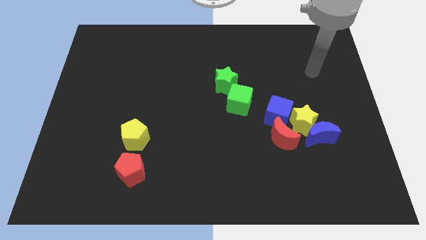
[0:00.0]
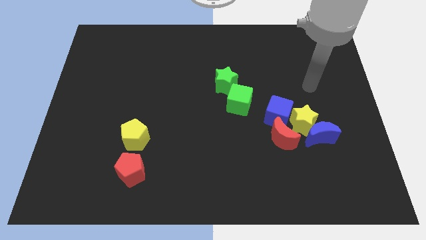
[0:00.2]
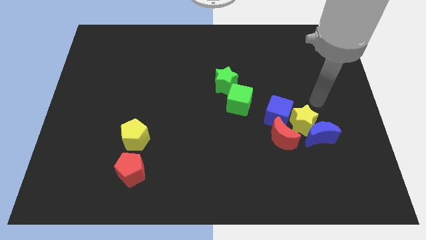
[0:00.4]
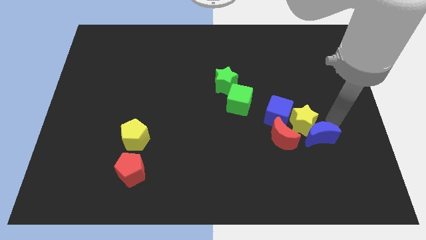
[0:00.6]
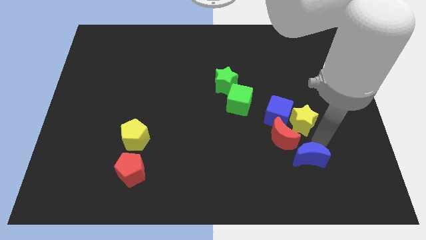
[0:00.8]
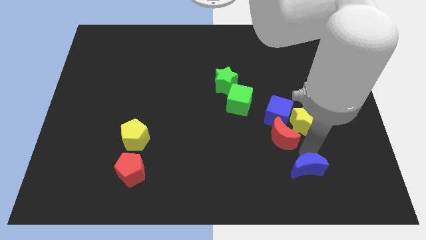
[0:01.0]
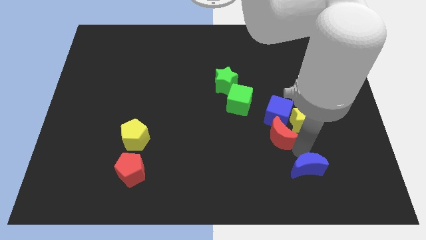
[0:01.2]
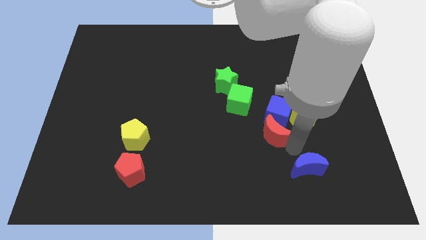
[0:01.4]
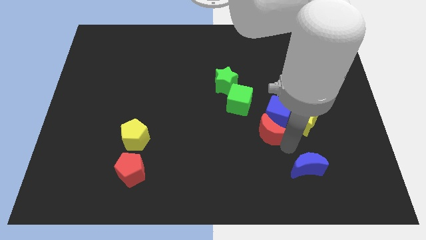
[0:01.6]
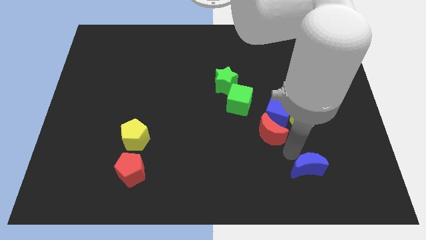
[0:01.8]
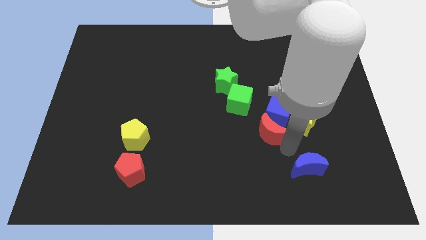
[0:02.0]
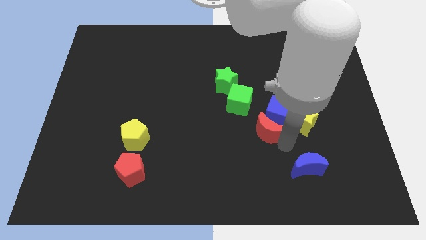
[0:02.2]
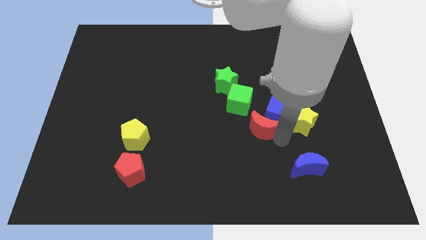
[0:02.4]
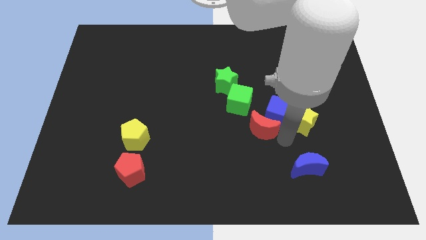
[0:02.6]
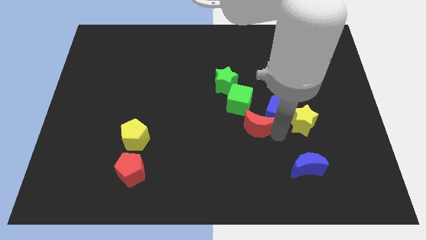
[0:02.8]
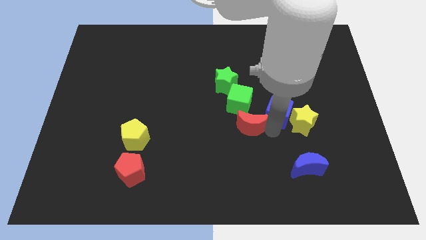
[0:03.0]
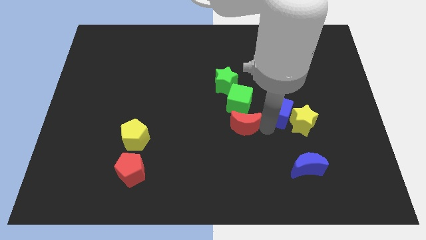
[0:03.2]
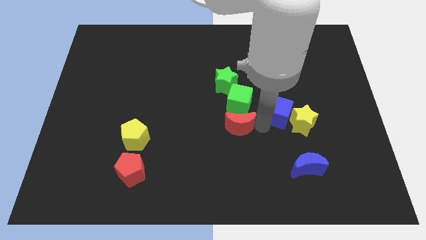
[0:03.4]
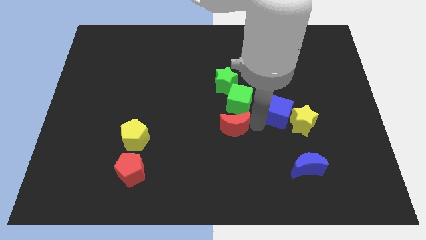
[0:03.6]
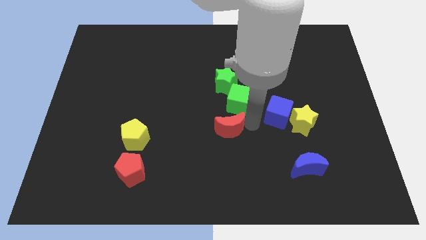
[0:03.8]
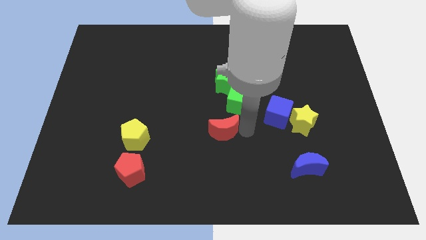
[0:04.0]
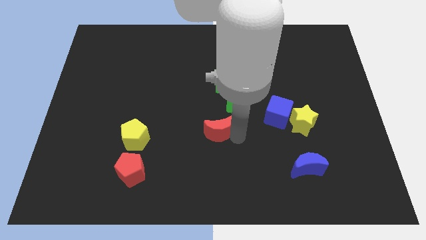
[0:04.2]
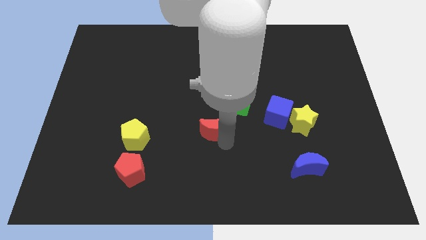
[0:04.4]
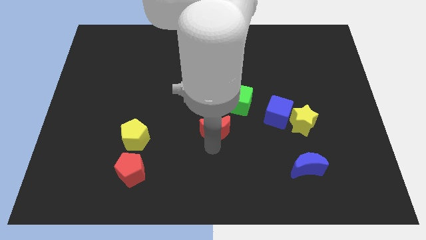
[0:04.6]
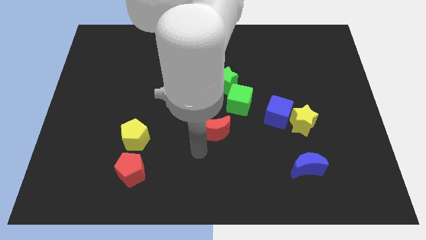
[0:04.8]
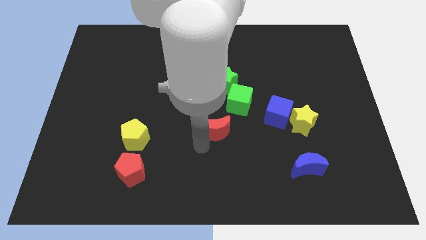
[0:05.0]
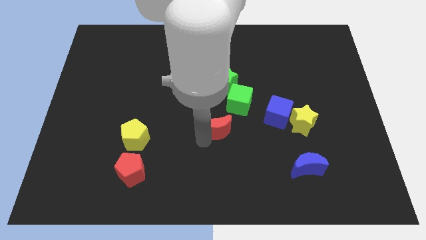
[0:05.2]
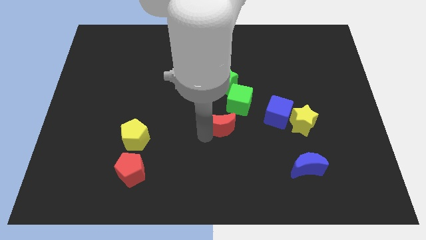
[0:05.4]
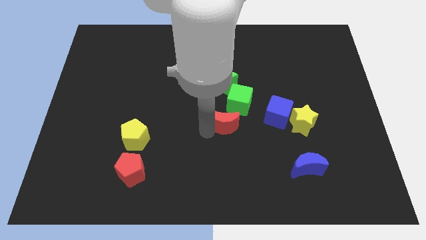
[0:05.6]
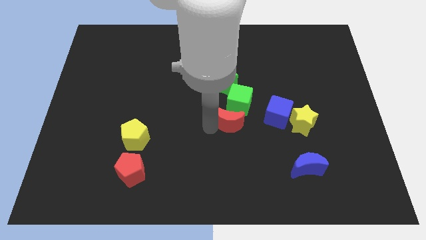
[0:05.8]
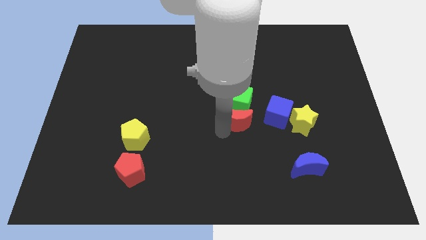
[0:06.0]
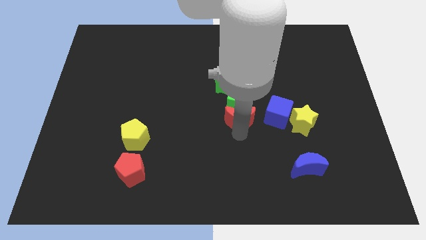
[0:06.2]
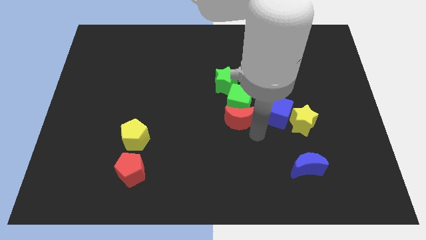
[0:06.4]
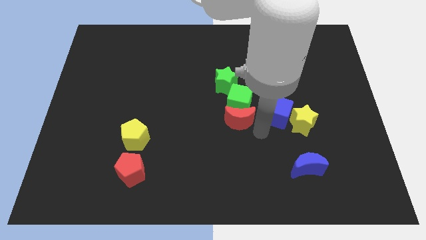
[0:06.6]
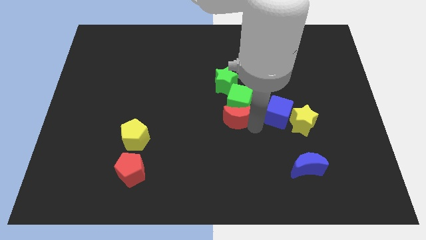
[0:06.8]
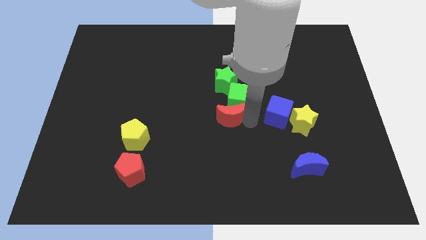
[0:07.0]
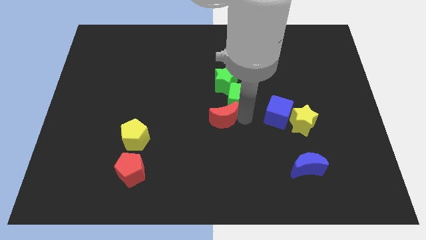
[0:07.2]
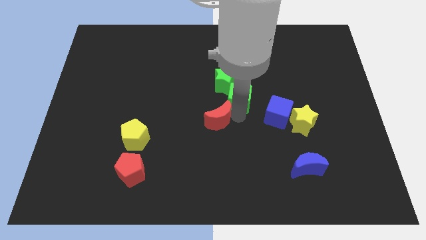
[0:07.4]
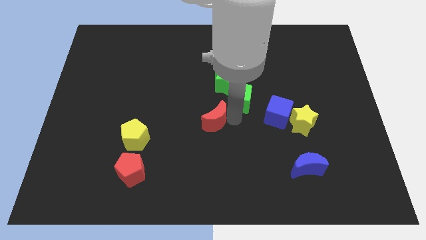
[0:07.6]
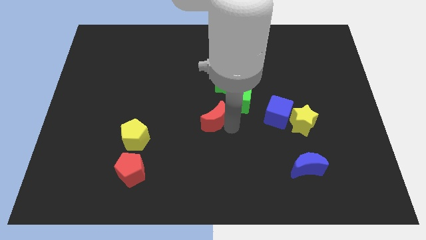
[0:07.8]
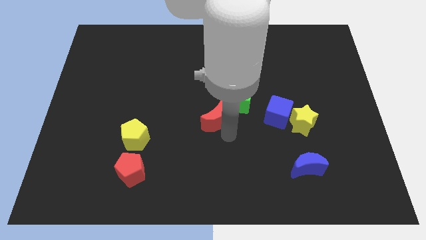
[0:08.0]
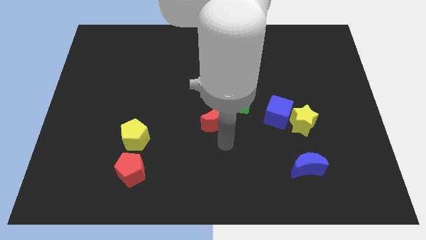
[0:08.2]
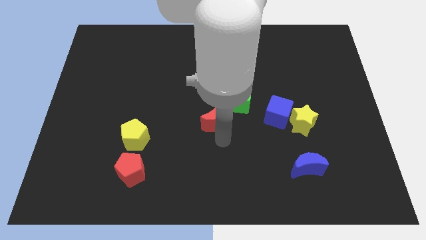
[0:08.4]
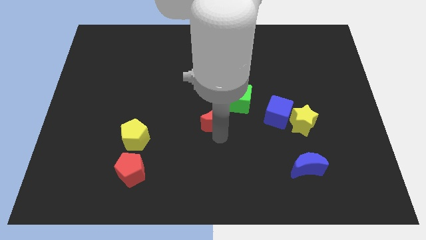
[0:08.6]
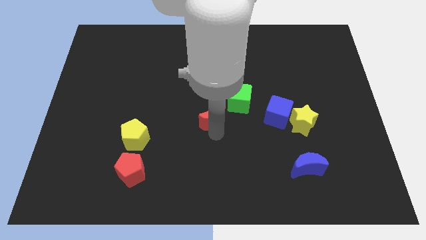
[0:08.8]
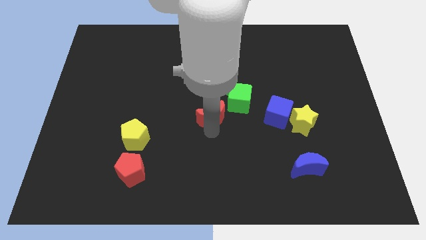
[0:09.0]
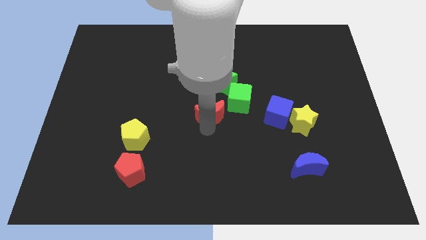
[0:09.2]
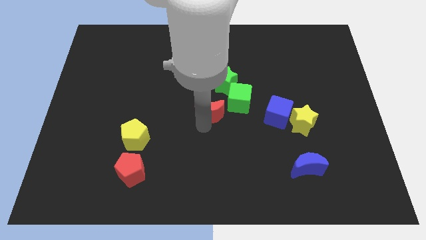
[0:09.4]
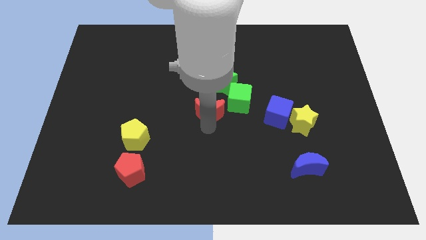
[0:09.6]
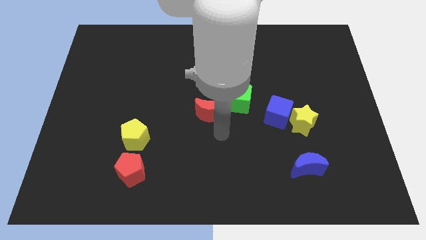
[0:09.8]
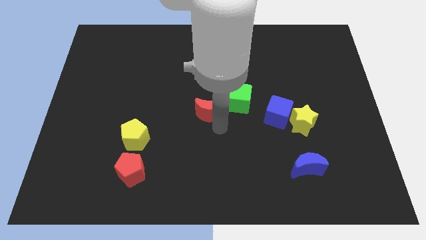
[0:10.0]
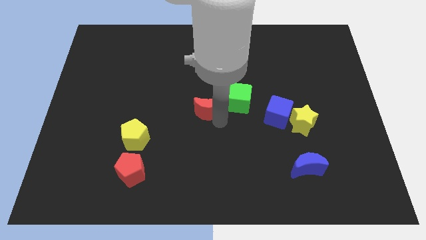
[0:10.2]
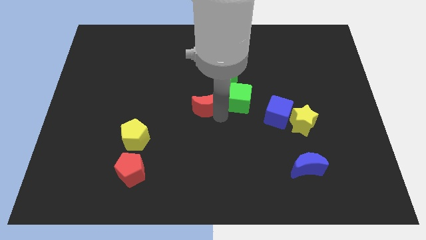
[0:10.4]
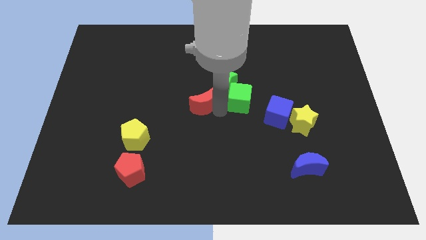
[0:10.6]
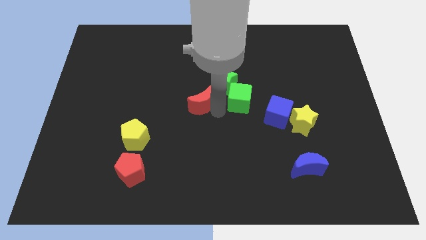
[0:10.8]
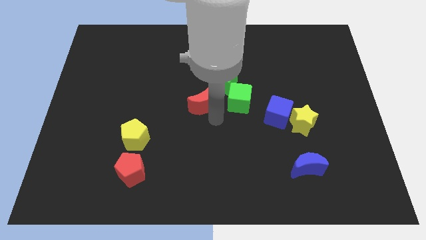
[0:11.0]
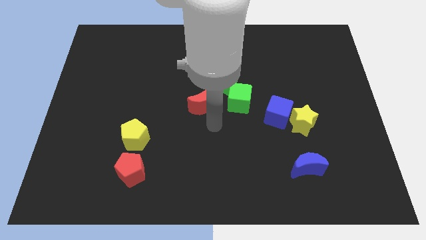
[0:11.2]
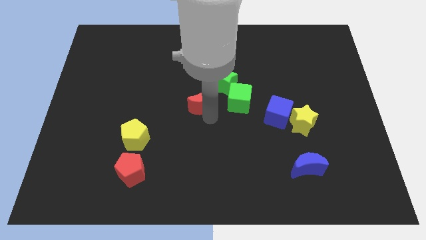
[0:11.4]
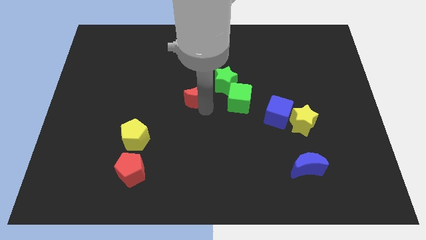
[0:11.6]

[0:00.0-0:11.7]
move the red moon diagonally upwards and to the left

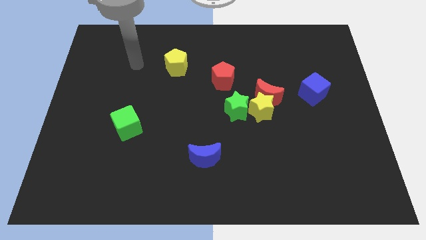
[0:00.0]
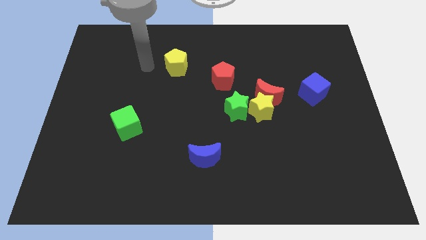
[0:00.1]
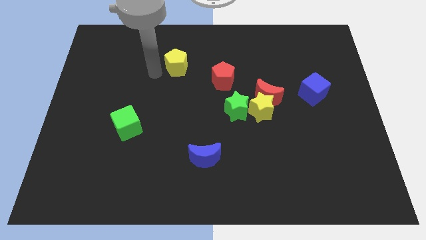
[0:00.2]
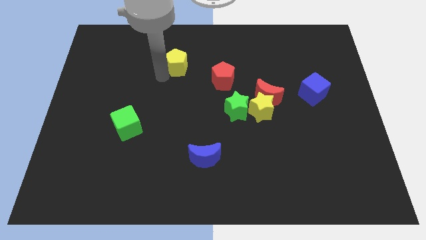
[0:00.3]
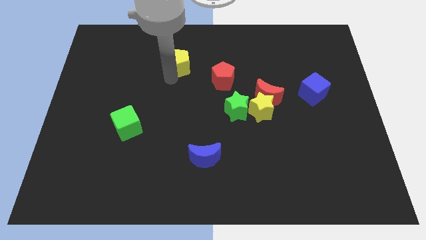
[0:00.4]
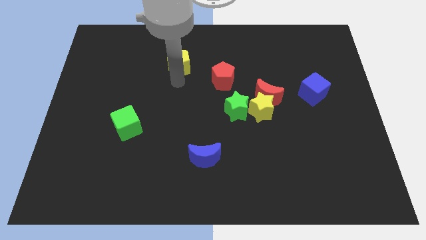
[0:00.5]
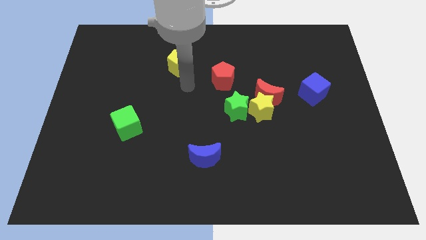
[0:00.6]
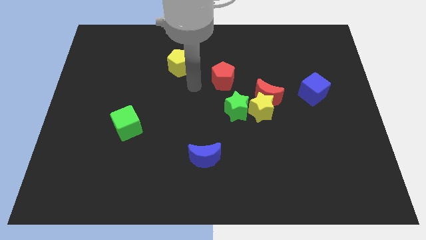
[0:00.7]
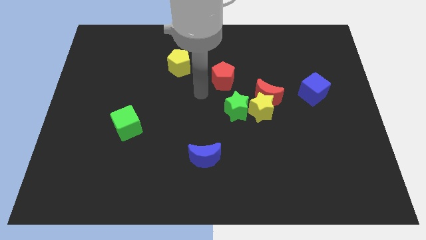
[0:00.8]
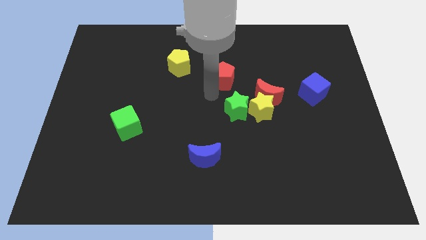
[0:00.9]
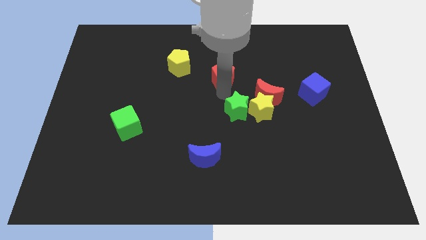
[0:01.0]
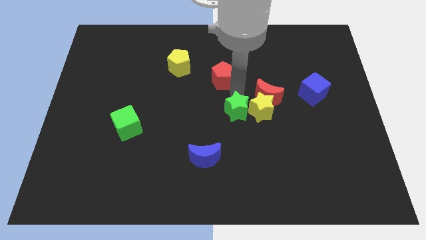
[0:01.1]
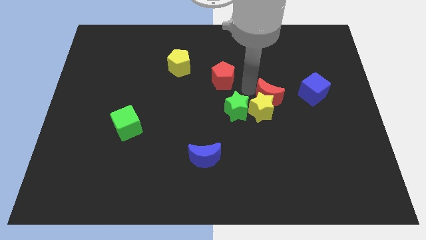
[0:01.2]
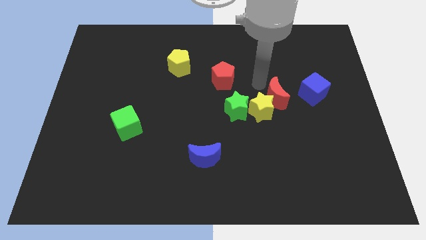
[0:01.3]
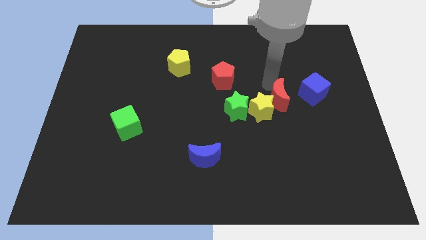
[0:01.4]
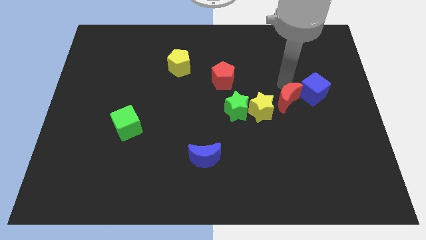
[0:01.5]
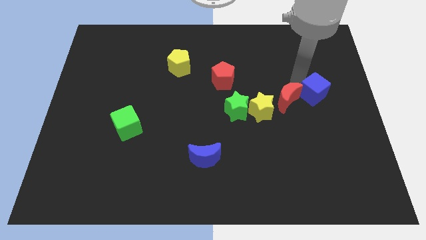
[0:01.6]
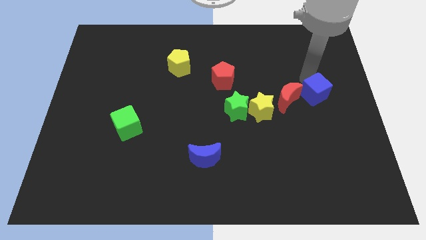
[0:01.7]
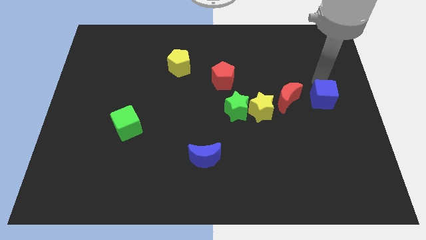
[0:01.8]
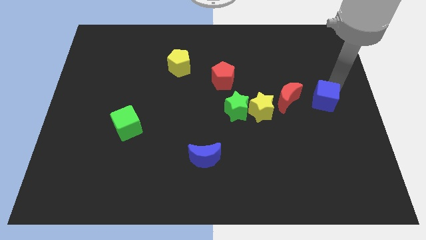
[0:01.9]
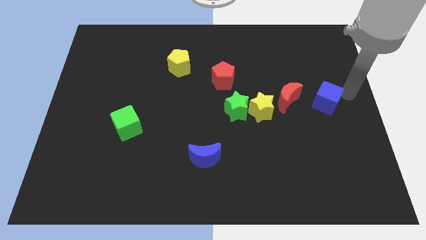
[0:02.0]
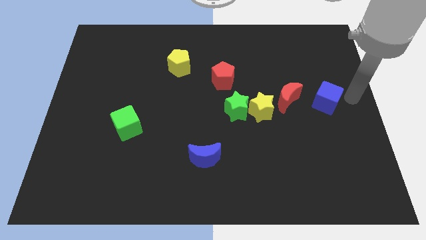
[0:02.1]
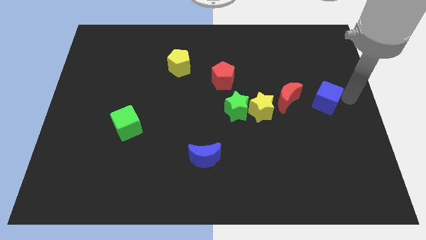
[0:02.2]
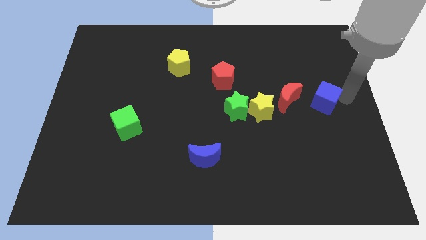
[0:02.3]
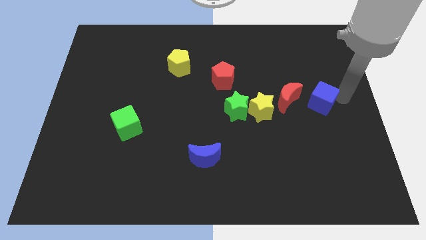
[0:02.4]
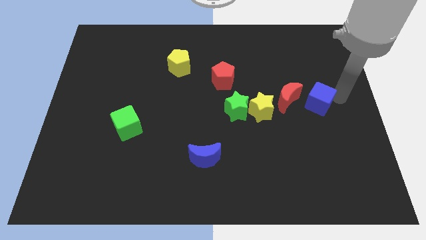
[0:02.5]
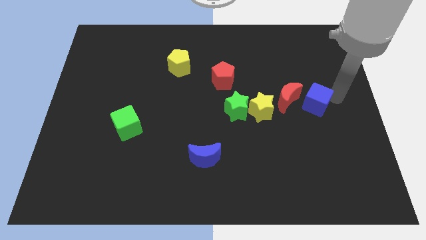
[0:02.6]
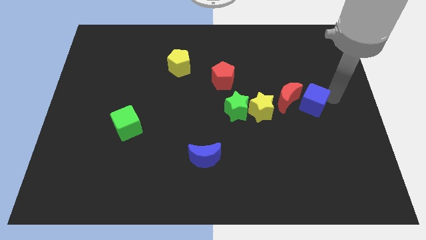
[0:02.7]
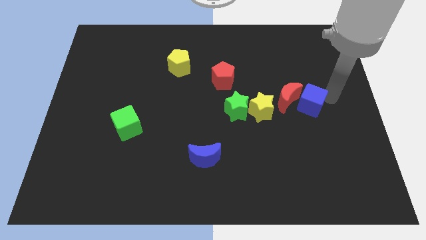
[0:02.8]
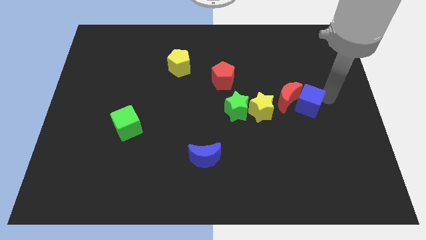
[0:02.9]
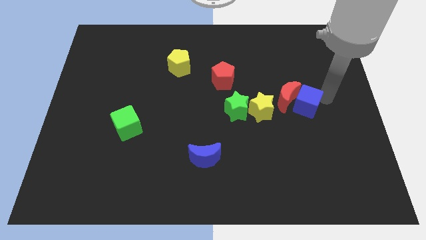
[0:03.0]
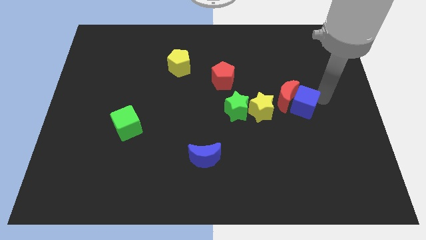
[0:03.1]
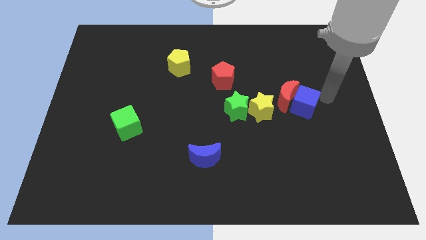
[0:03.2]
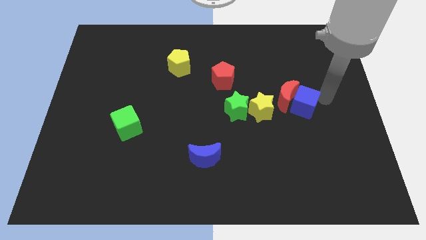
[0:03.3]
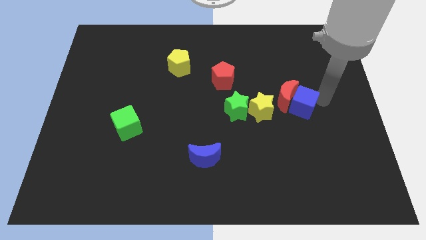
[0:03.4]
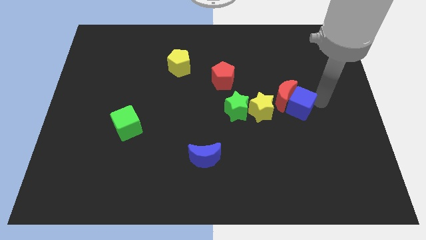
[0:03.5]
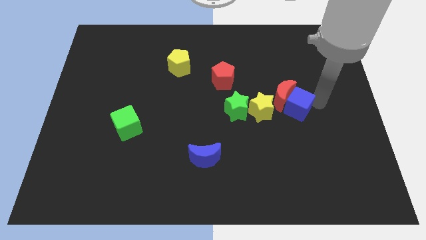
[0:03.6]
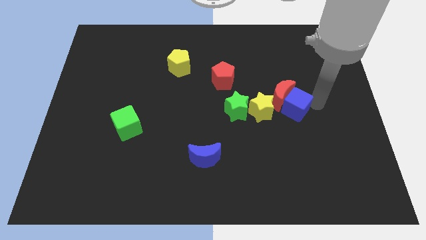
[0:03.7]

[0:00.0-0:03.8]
slightly move the blue cube down and left diagonally
